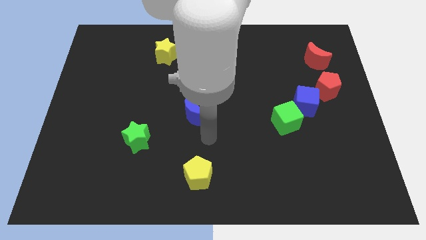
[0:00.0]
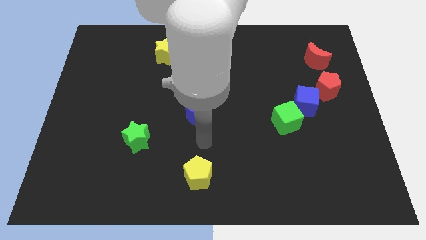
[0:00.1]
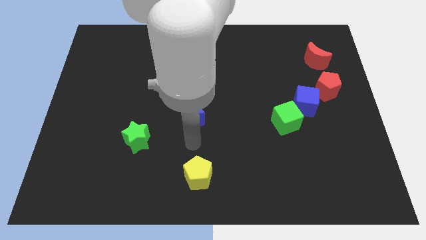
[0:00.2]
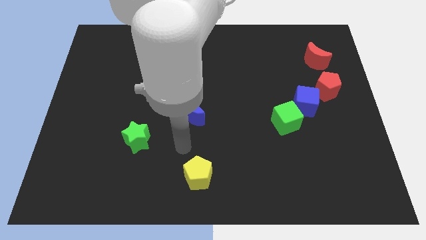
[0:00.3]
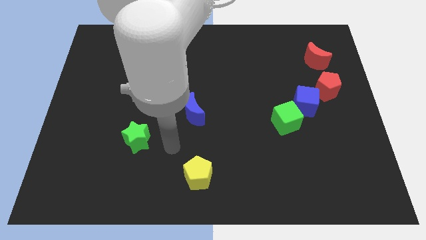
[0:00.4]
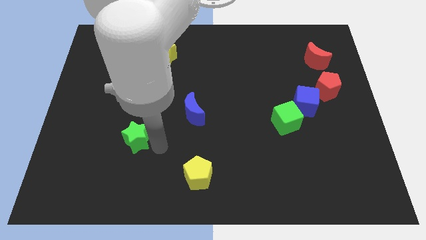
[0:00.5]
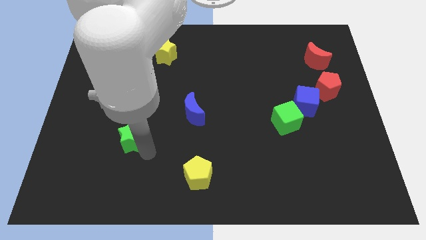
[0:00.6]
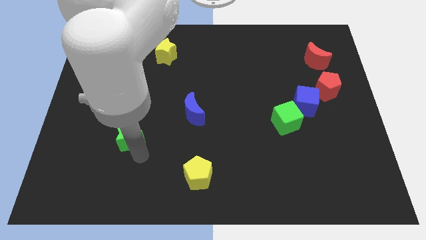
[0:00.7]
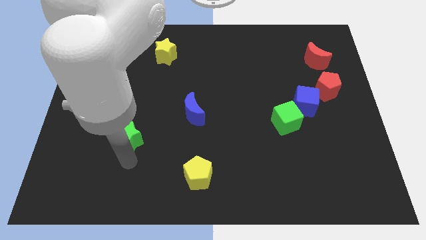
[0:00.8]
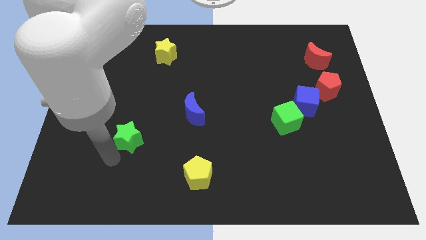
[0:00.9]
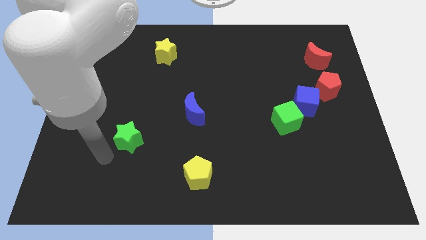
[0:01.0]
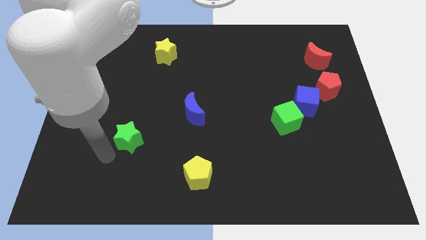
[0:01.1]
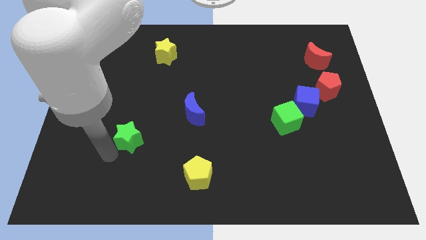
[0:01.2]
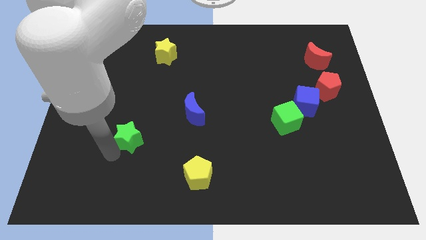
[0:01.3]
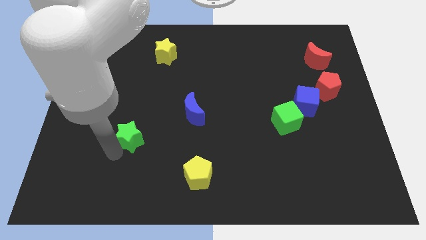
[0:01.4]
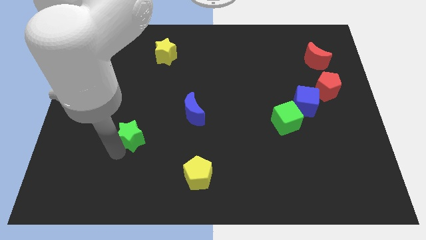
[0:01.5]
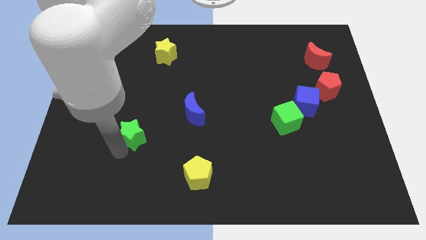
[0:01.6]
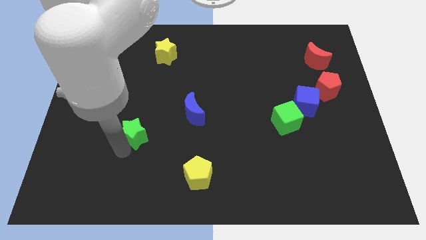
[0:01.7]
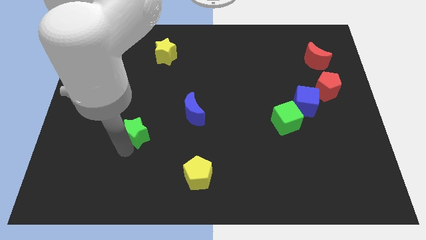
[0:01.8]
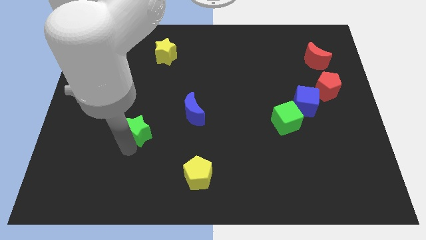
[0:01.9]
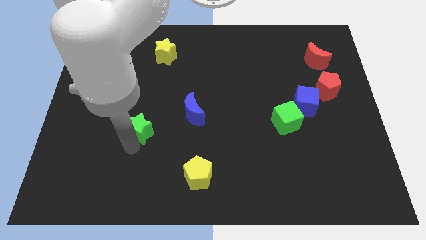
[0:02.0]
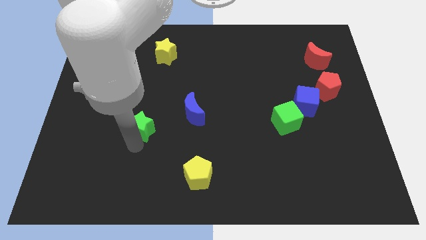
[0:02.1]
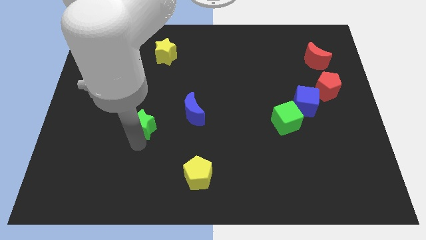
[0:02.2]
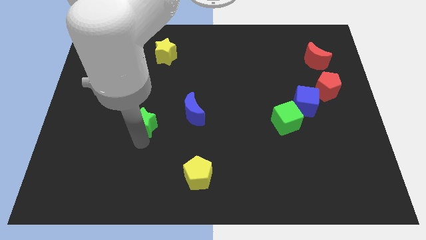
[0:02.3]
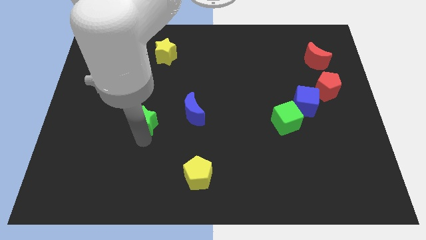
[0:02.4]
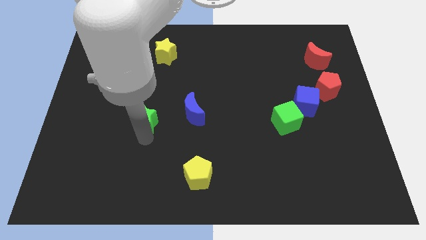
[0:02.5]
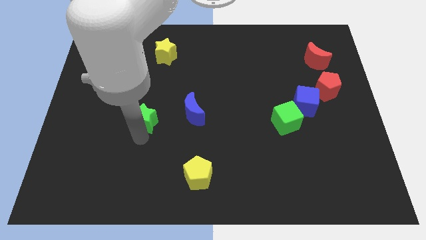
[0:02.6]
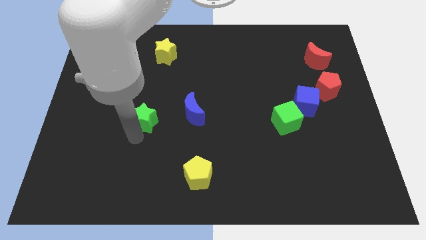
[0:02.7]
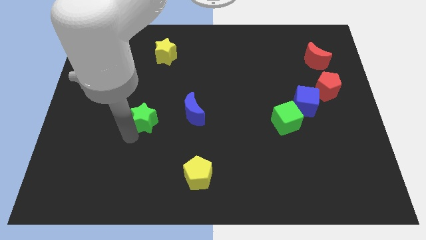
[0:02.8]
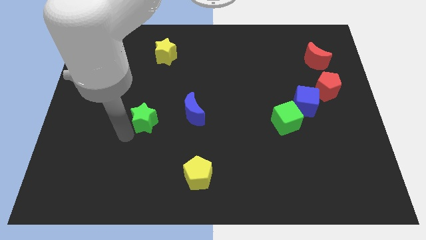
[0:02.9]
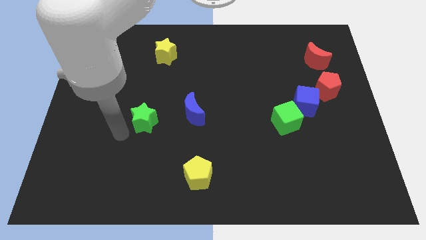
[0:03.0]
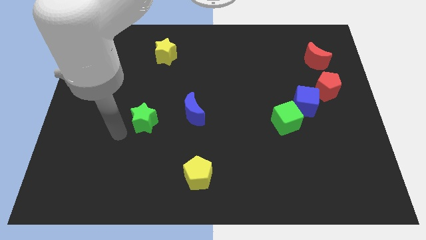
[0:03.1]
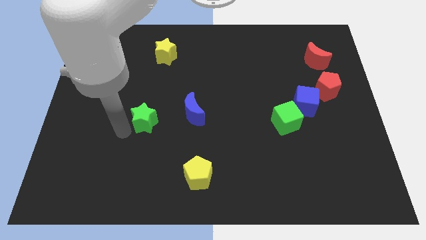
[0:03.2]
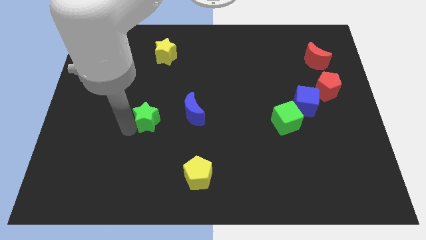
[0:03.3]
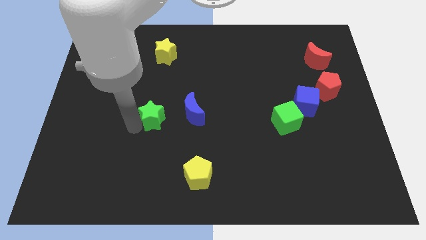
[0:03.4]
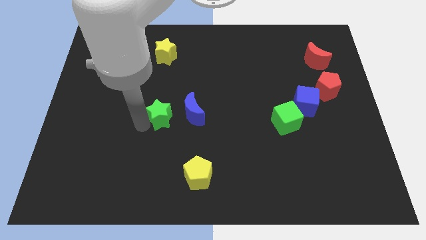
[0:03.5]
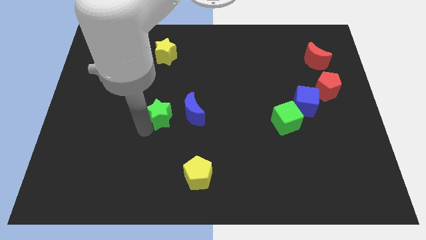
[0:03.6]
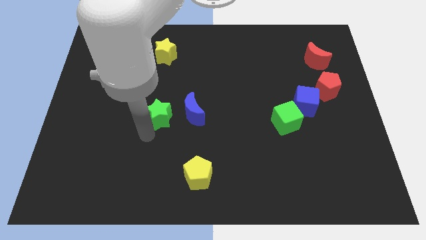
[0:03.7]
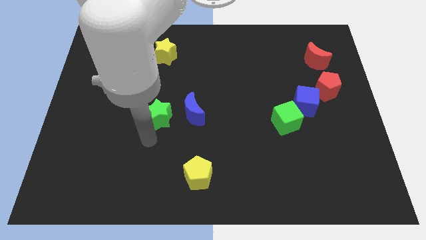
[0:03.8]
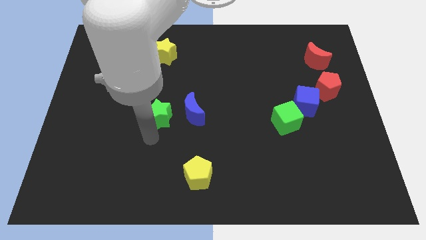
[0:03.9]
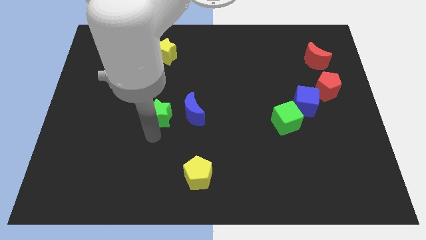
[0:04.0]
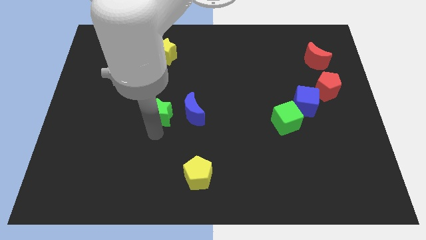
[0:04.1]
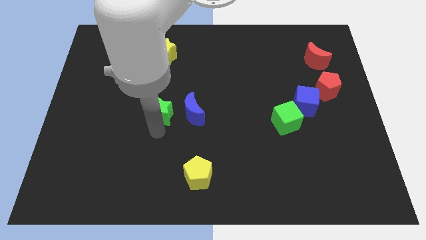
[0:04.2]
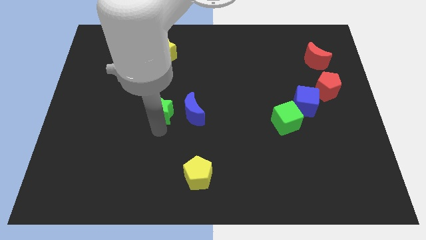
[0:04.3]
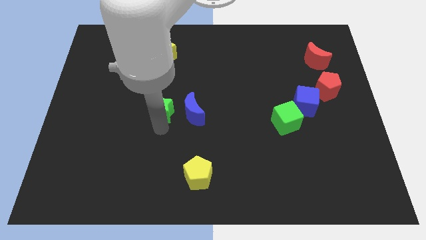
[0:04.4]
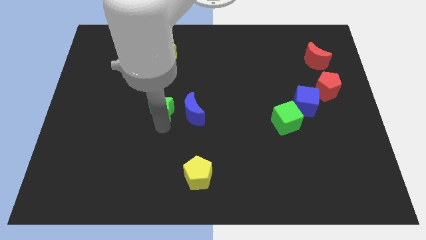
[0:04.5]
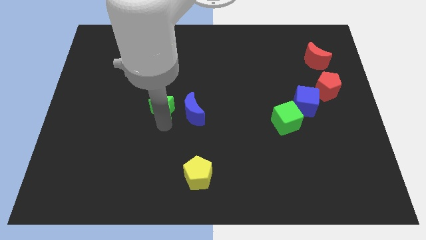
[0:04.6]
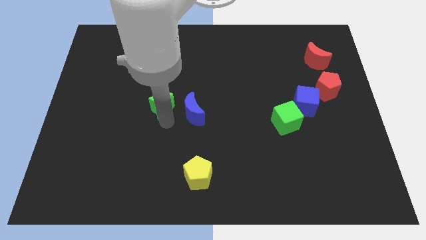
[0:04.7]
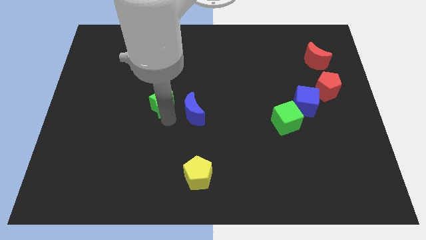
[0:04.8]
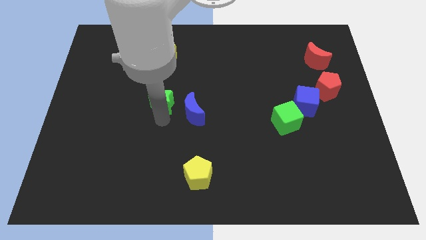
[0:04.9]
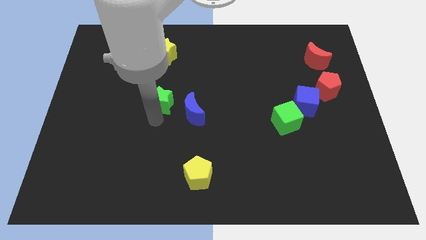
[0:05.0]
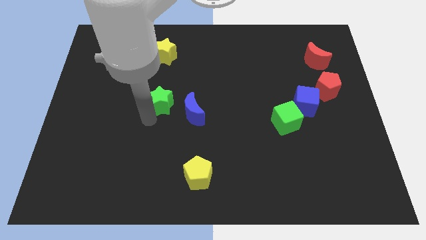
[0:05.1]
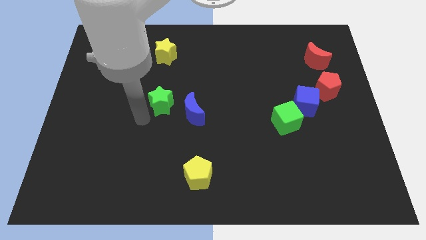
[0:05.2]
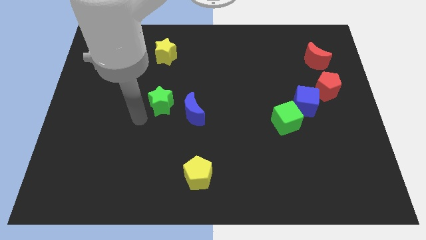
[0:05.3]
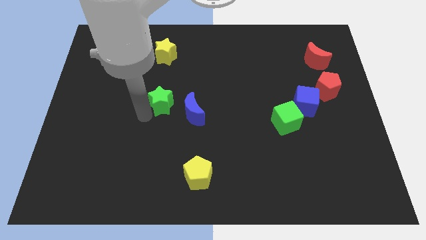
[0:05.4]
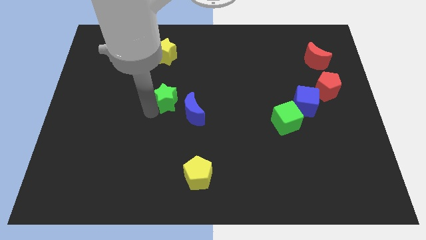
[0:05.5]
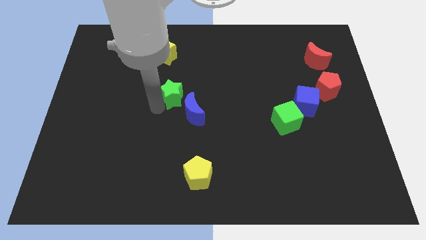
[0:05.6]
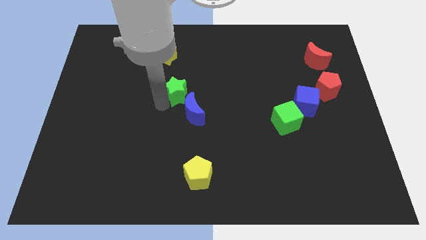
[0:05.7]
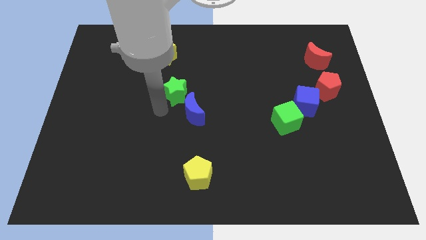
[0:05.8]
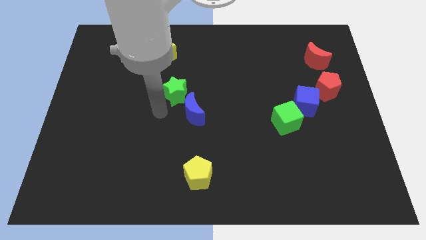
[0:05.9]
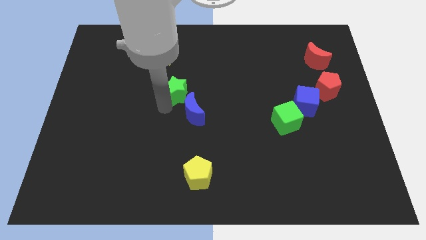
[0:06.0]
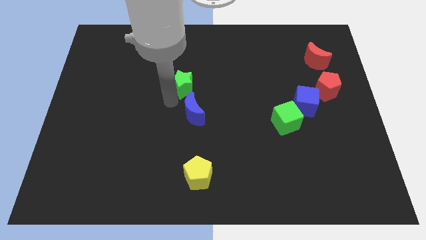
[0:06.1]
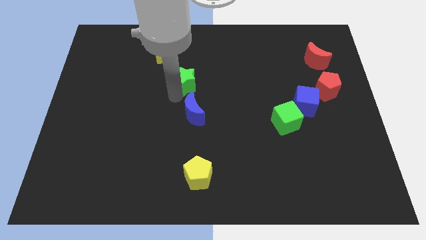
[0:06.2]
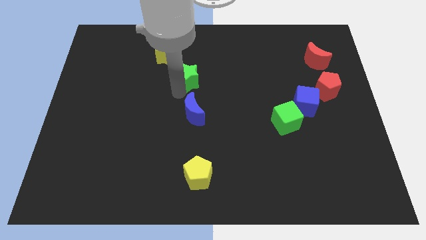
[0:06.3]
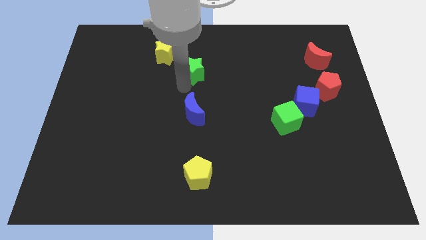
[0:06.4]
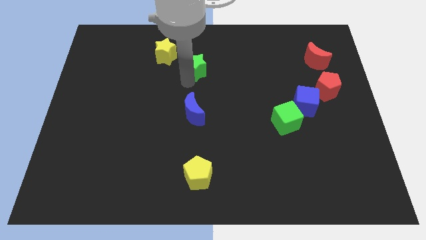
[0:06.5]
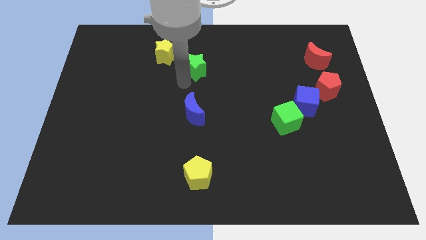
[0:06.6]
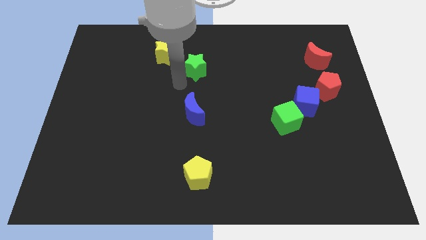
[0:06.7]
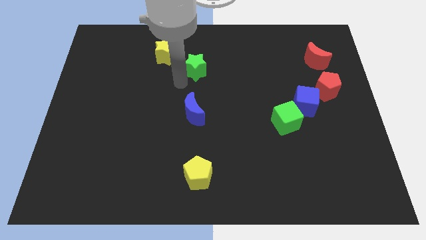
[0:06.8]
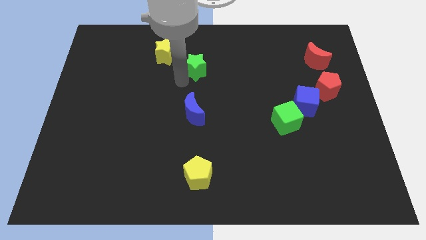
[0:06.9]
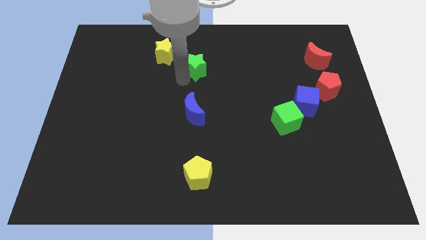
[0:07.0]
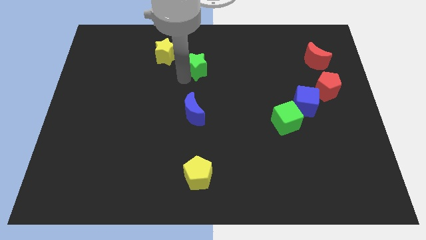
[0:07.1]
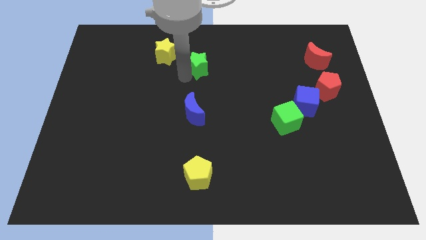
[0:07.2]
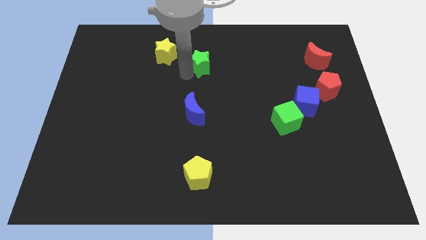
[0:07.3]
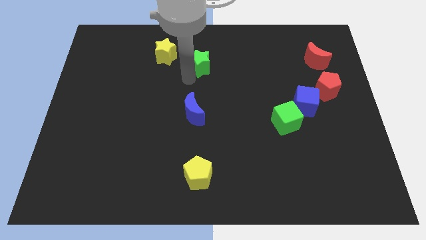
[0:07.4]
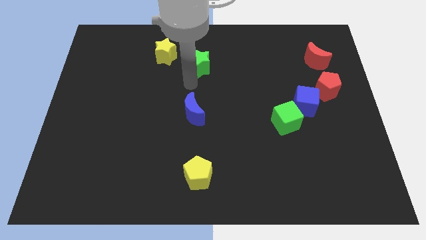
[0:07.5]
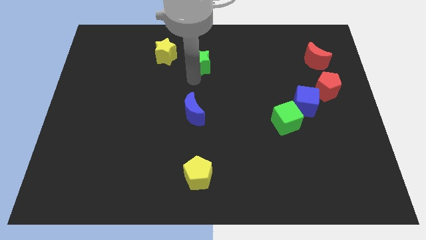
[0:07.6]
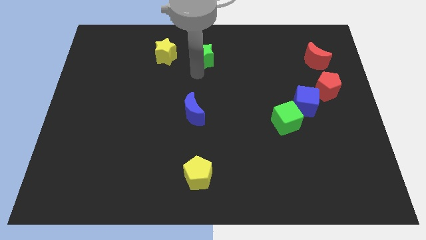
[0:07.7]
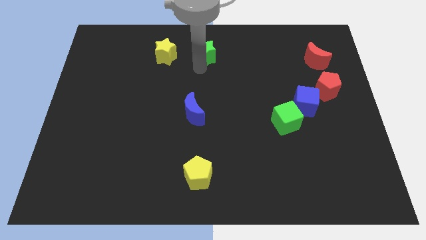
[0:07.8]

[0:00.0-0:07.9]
push the green star to the top side
